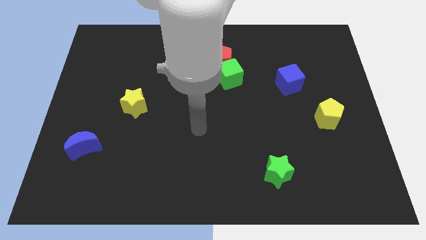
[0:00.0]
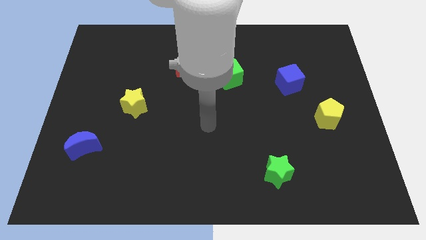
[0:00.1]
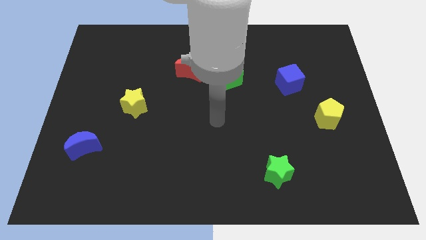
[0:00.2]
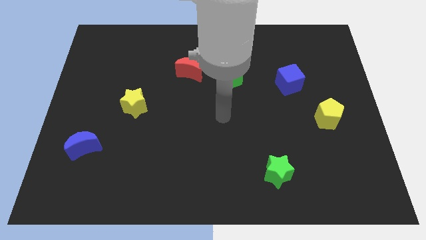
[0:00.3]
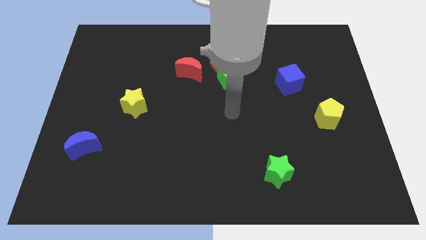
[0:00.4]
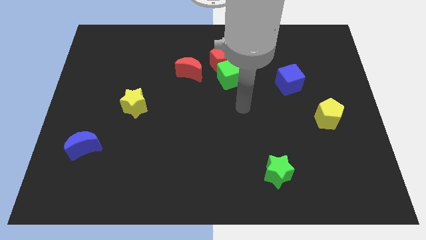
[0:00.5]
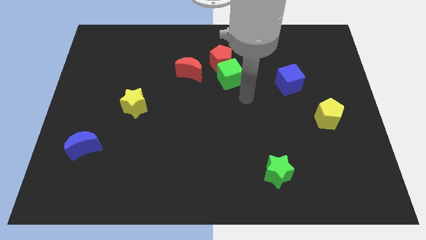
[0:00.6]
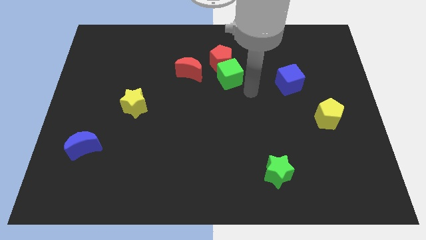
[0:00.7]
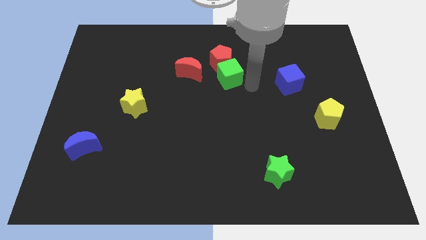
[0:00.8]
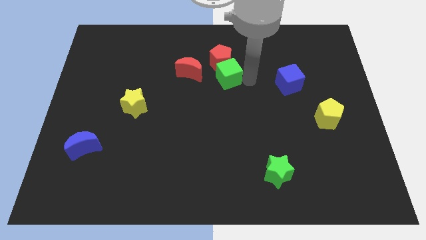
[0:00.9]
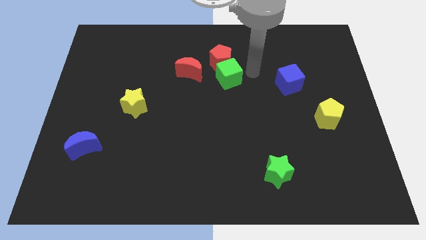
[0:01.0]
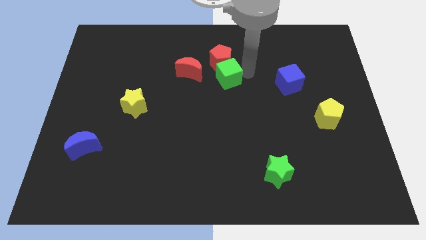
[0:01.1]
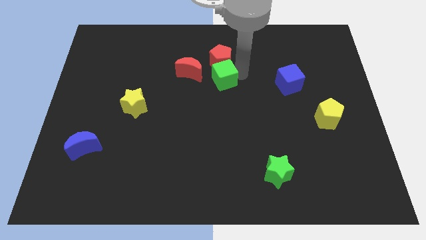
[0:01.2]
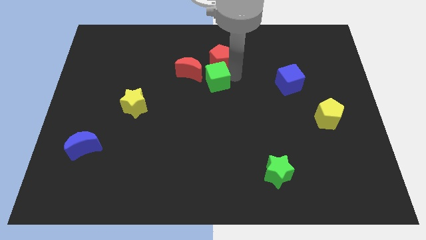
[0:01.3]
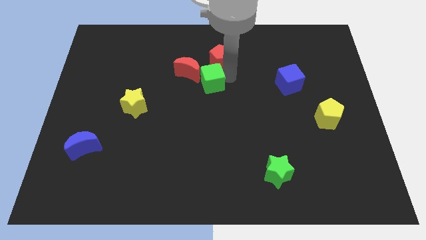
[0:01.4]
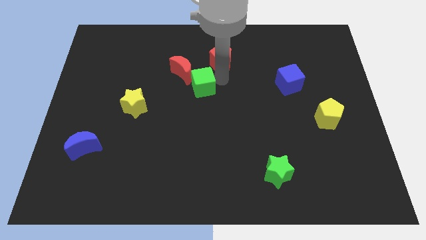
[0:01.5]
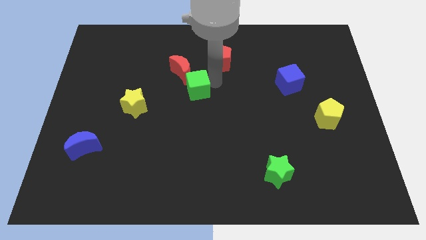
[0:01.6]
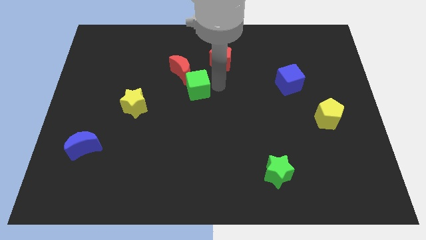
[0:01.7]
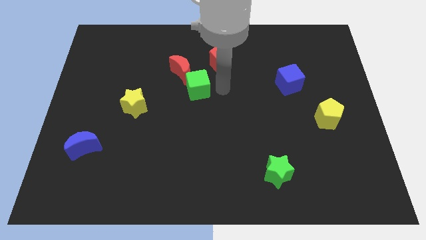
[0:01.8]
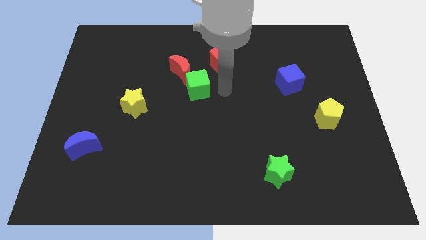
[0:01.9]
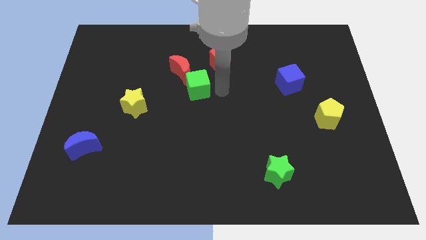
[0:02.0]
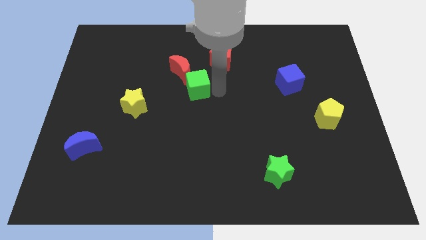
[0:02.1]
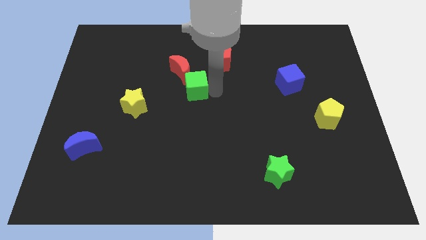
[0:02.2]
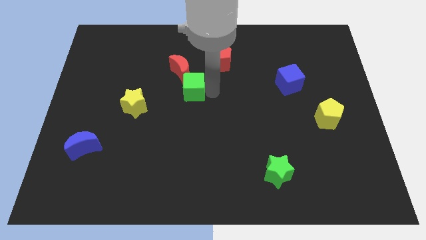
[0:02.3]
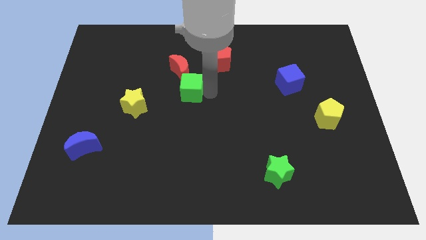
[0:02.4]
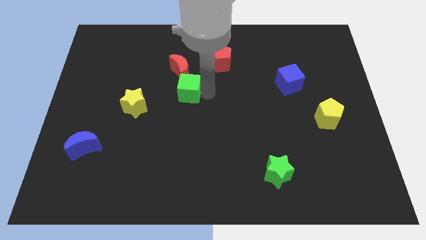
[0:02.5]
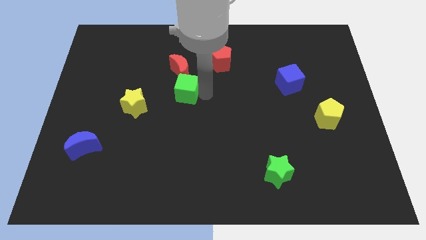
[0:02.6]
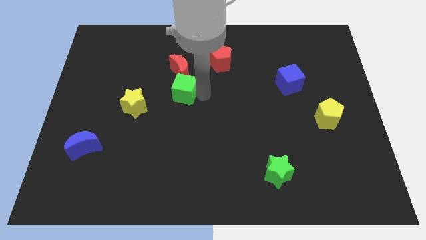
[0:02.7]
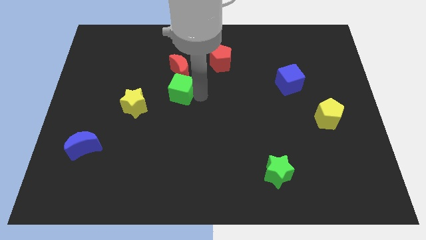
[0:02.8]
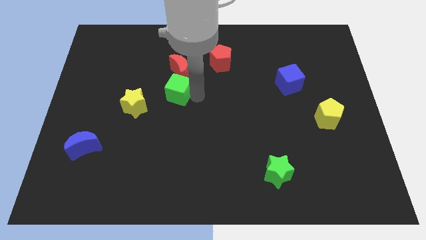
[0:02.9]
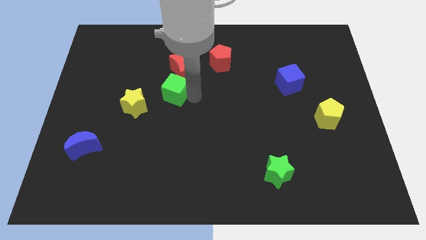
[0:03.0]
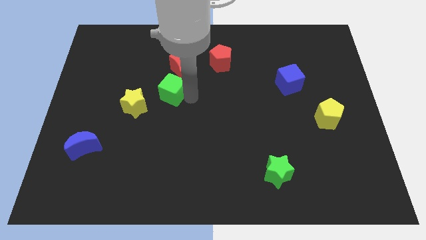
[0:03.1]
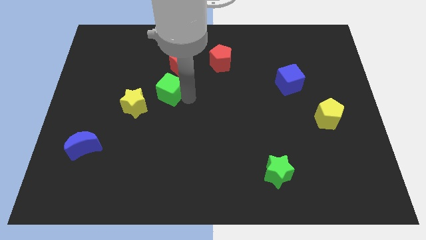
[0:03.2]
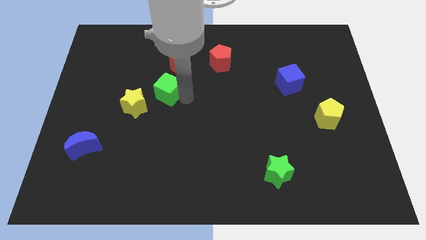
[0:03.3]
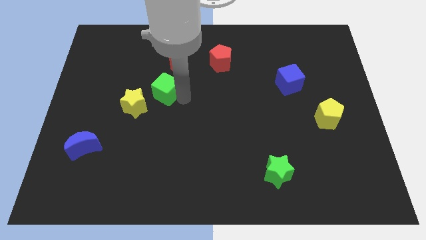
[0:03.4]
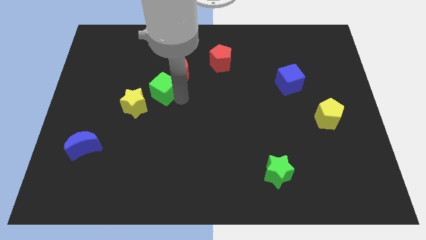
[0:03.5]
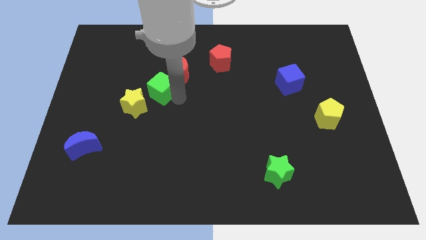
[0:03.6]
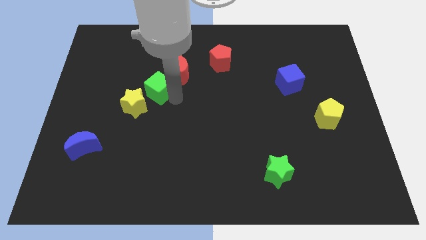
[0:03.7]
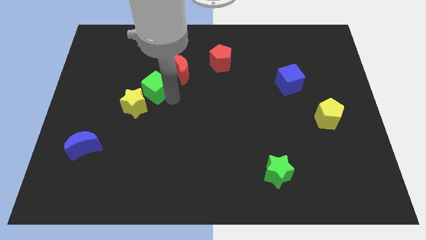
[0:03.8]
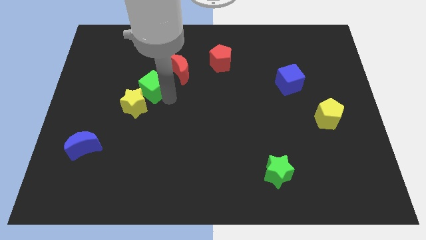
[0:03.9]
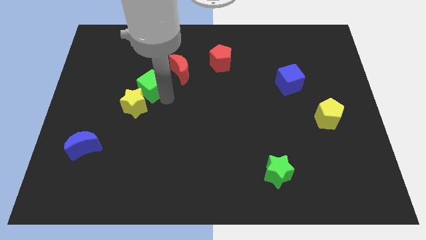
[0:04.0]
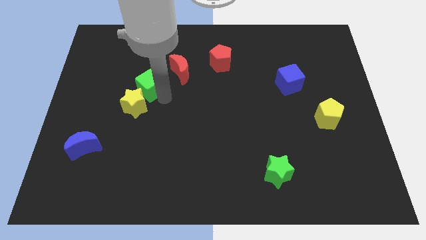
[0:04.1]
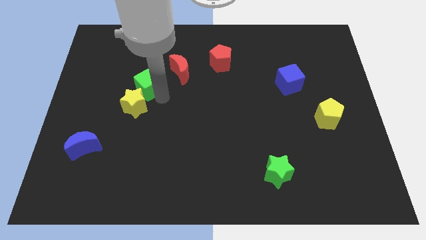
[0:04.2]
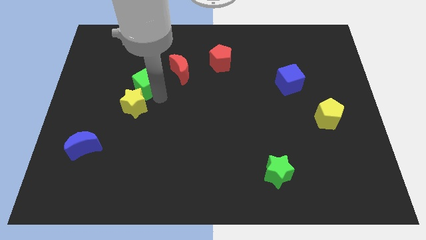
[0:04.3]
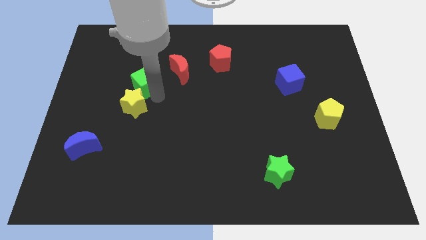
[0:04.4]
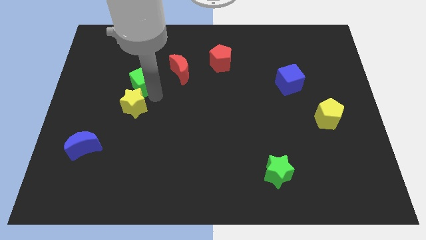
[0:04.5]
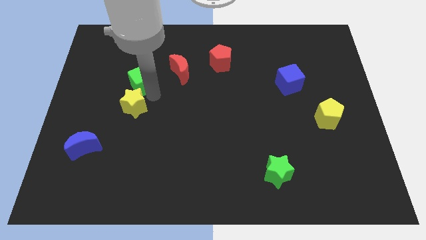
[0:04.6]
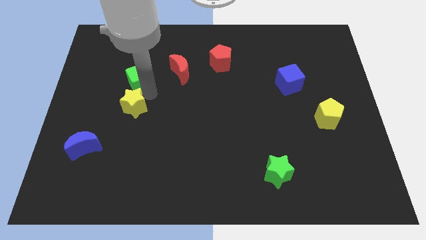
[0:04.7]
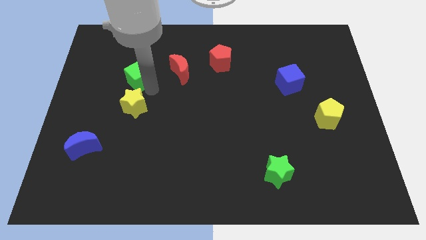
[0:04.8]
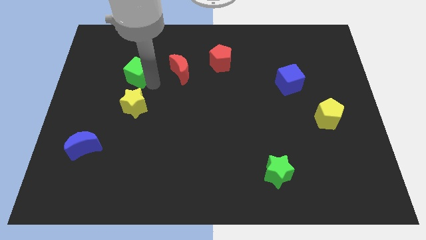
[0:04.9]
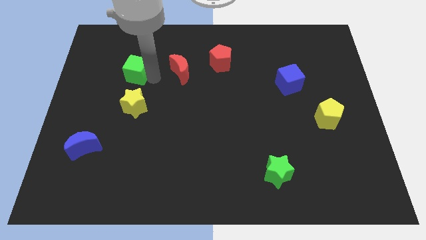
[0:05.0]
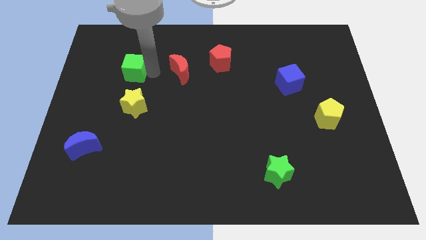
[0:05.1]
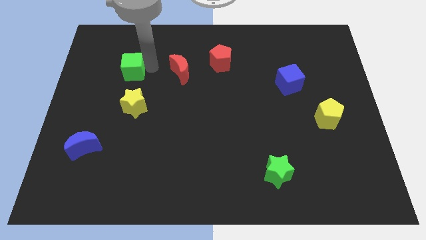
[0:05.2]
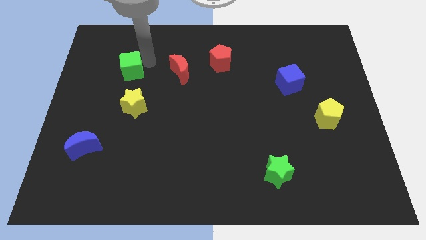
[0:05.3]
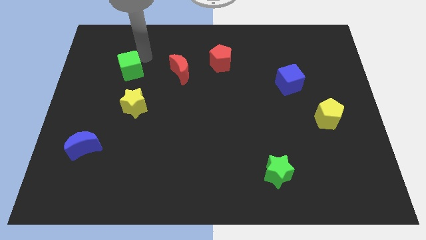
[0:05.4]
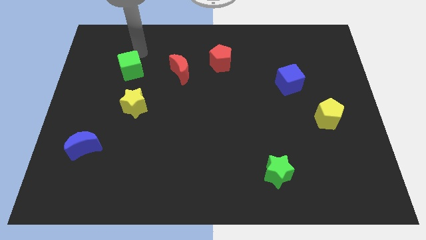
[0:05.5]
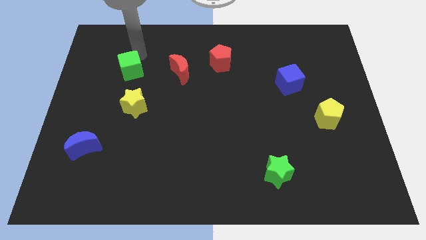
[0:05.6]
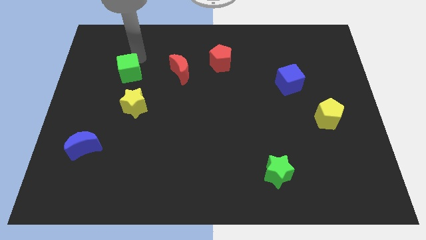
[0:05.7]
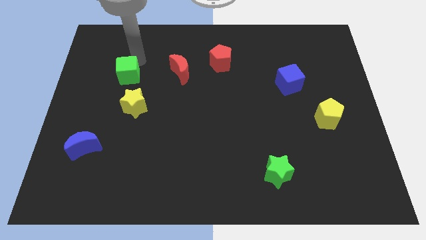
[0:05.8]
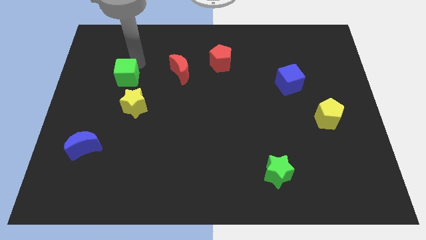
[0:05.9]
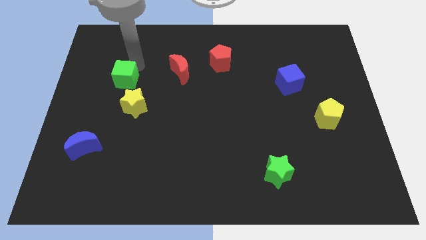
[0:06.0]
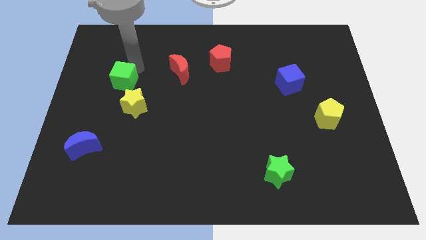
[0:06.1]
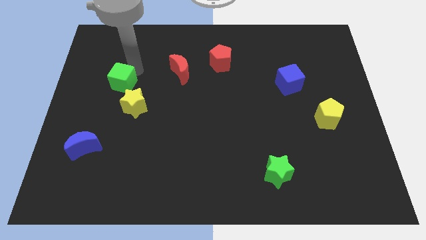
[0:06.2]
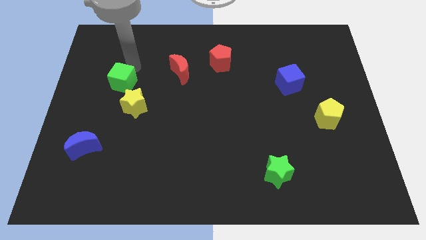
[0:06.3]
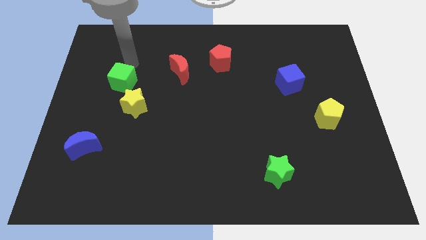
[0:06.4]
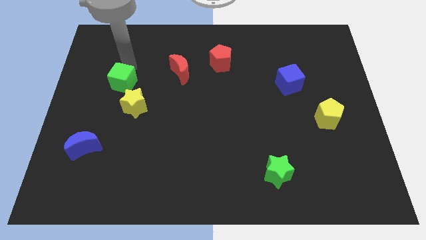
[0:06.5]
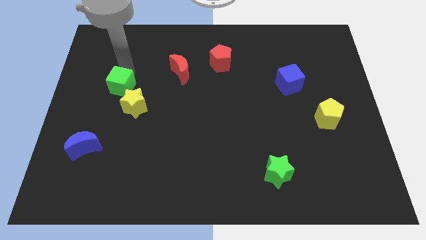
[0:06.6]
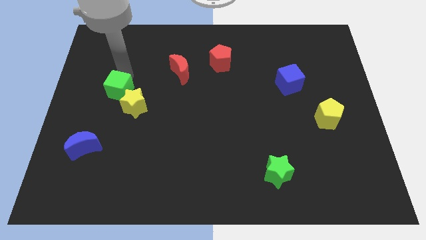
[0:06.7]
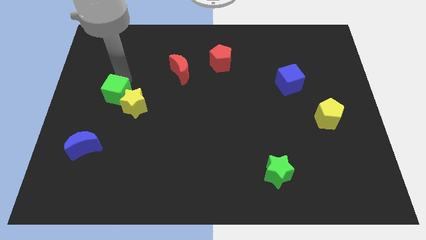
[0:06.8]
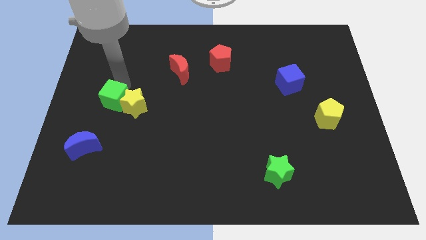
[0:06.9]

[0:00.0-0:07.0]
slide the green cube to the top of the blue moon

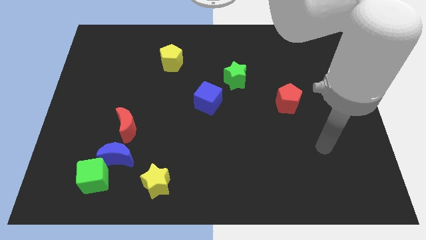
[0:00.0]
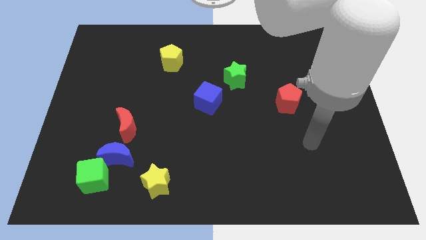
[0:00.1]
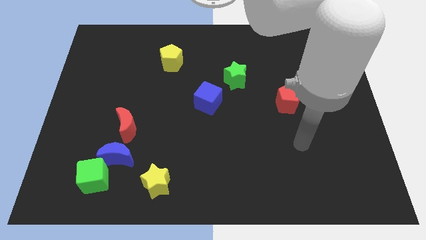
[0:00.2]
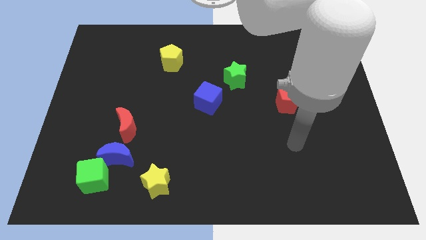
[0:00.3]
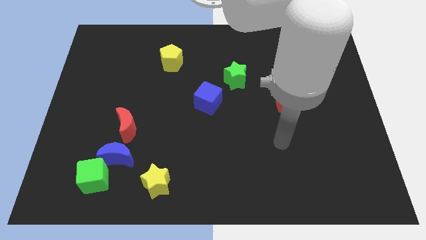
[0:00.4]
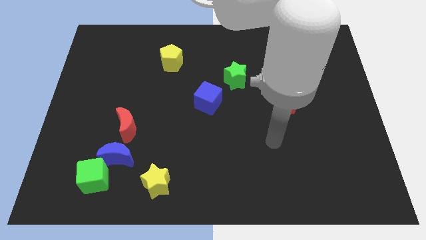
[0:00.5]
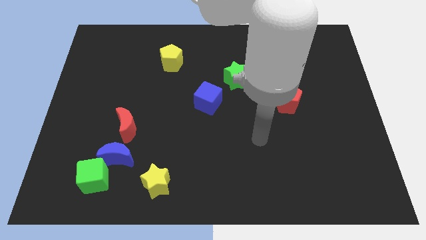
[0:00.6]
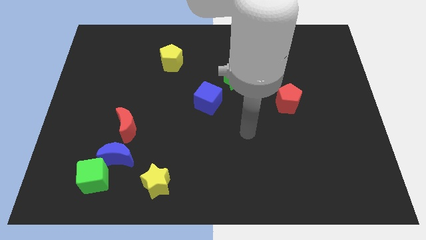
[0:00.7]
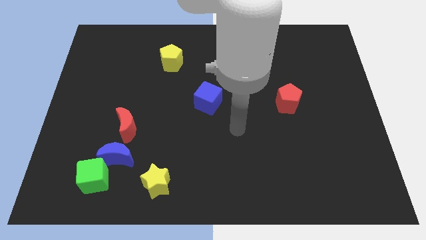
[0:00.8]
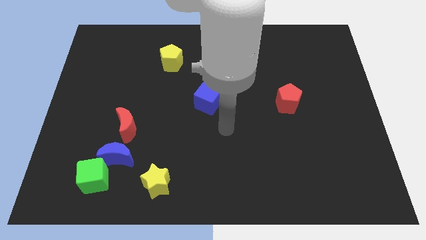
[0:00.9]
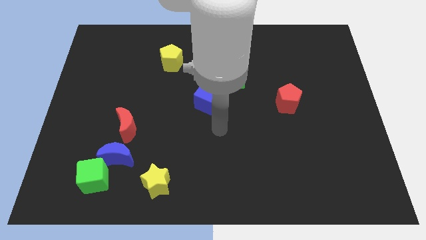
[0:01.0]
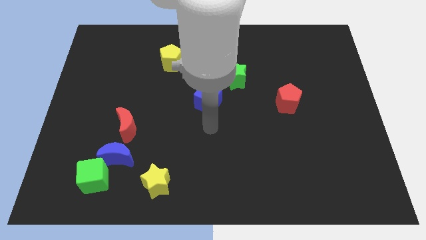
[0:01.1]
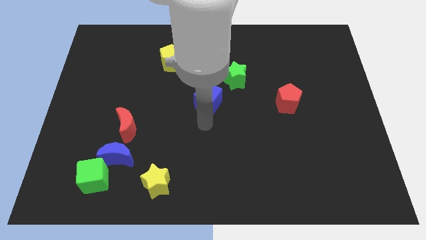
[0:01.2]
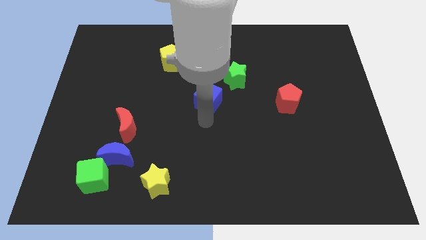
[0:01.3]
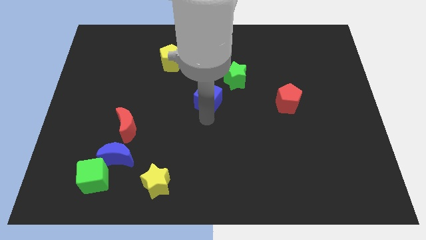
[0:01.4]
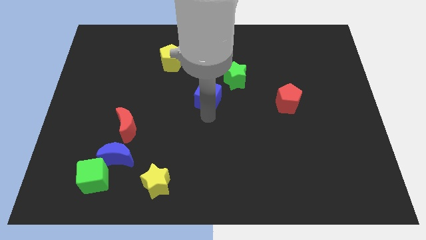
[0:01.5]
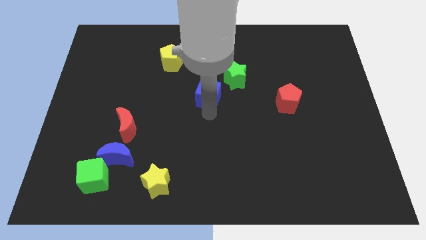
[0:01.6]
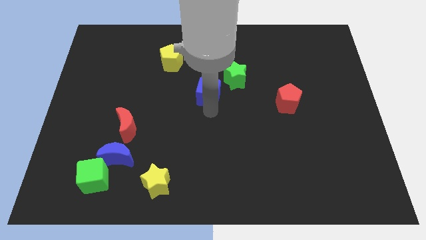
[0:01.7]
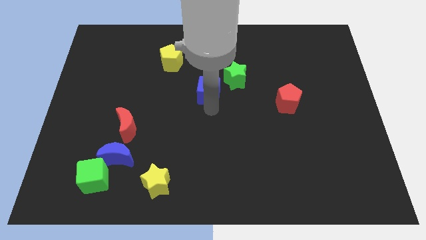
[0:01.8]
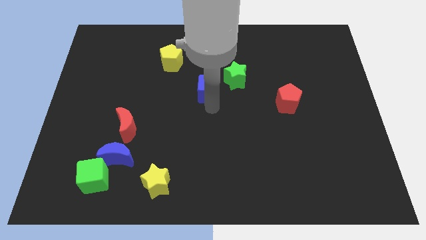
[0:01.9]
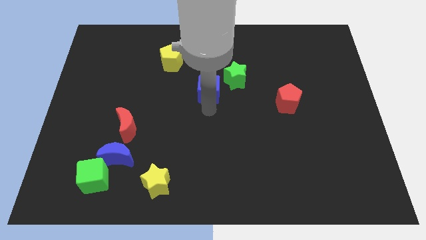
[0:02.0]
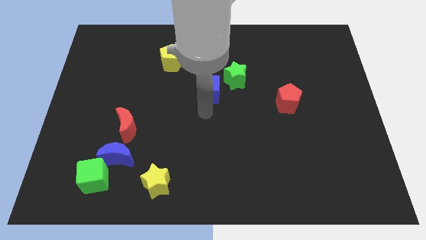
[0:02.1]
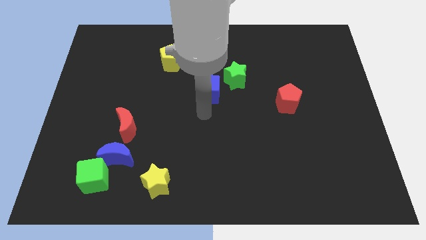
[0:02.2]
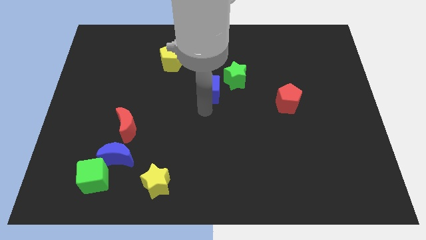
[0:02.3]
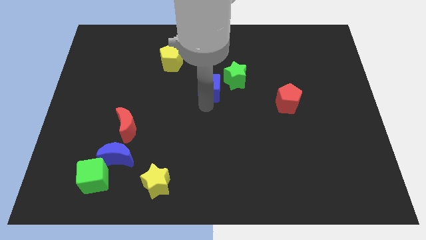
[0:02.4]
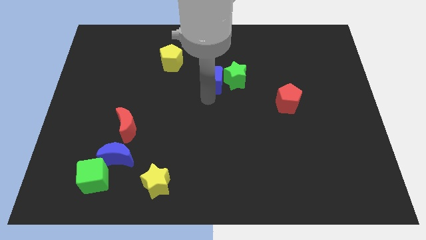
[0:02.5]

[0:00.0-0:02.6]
slide the blue cube diagonally up and to the left of the green star
